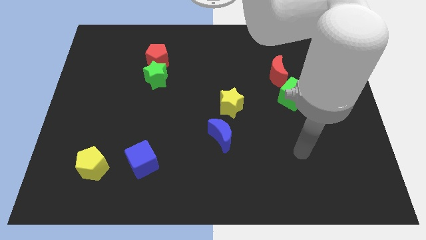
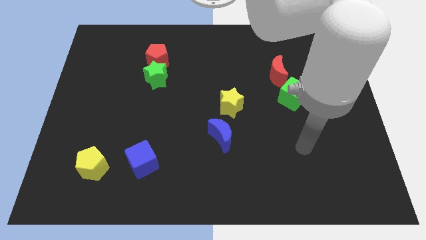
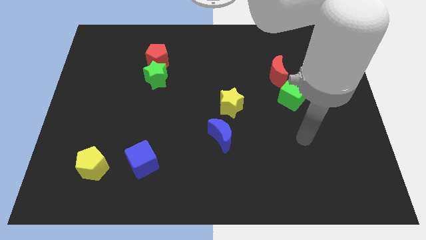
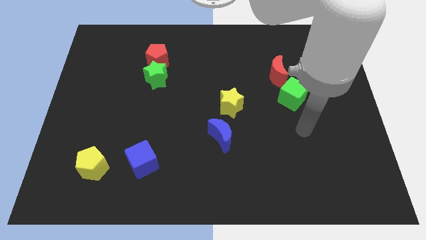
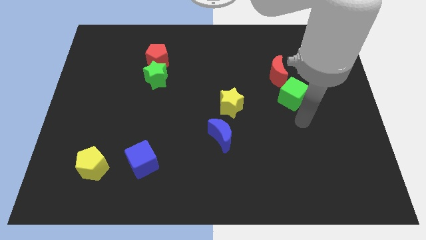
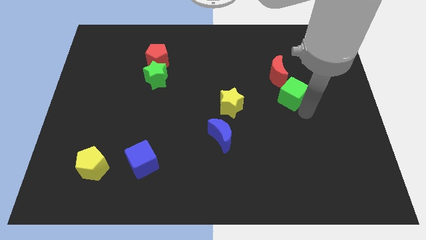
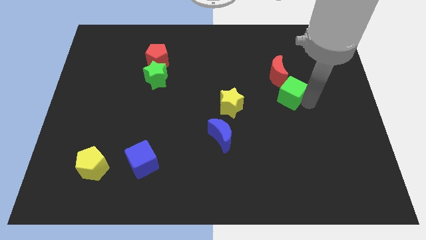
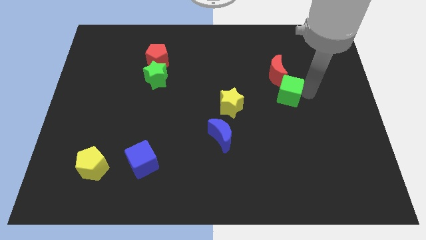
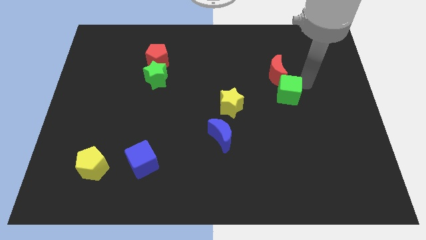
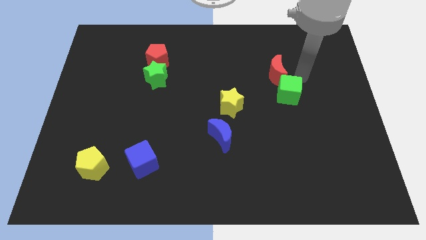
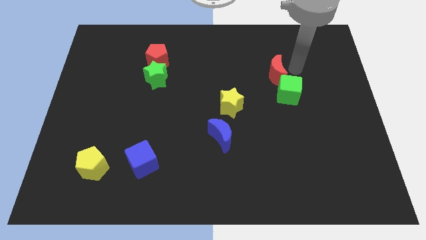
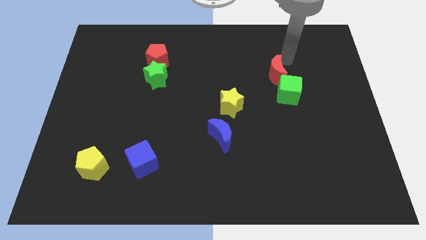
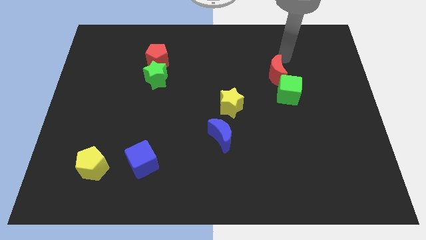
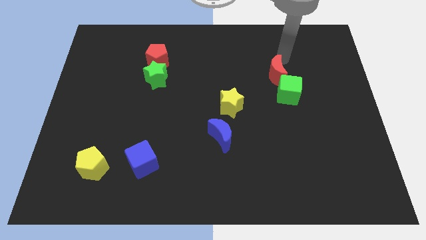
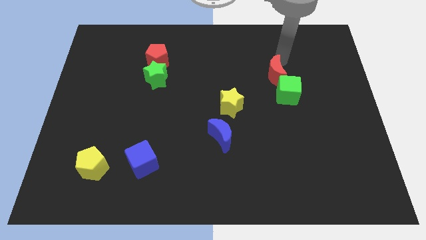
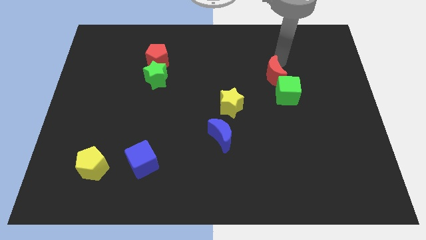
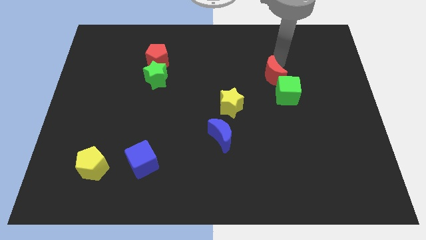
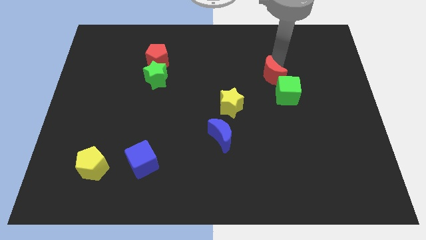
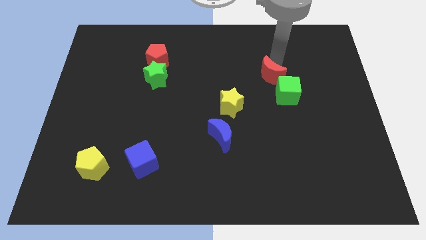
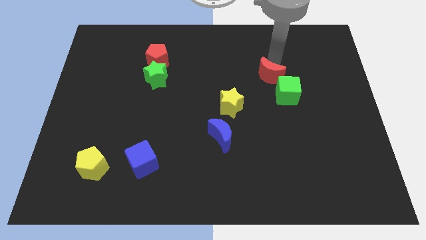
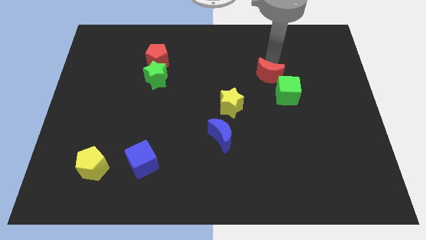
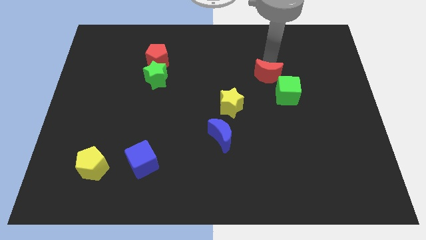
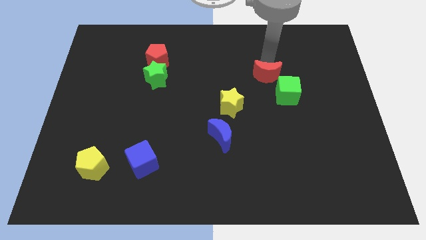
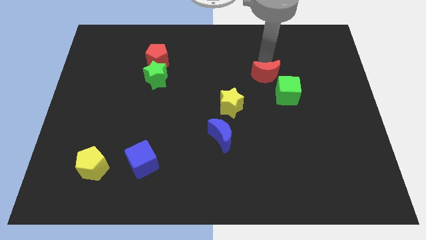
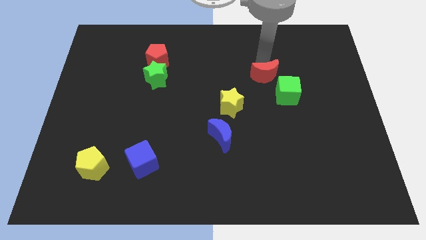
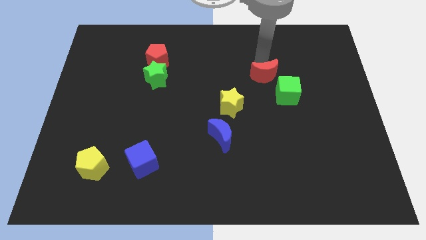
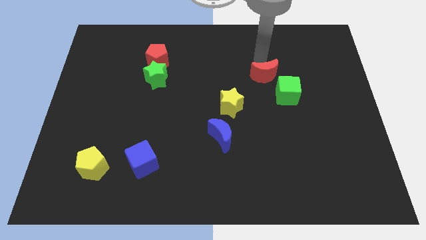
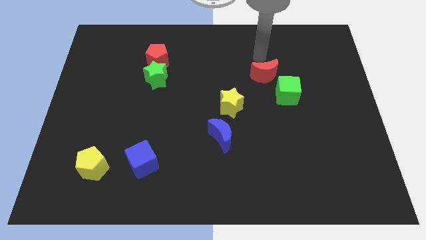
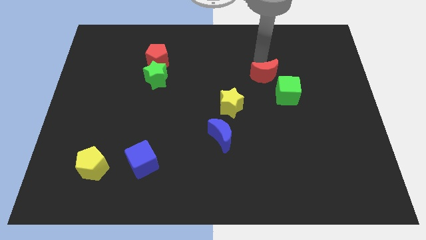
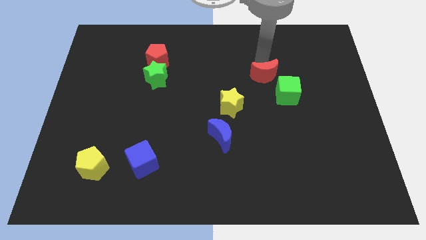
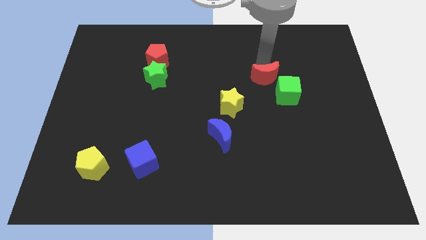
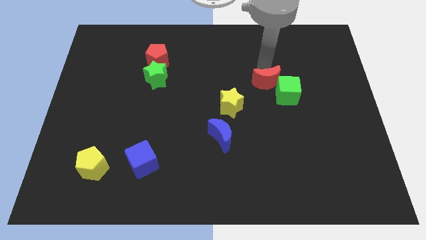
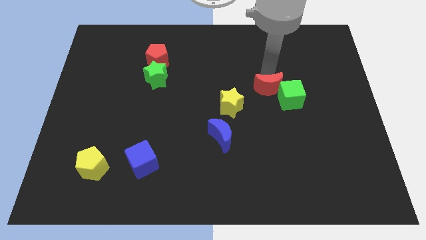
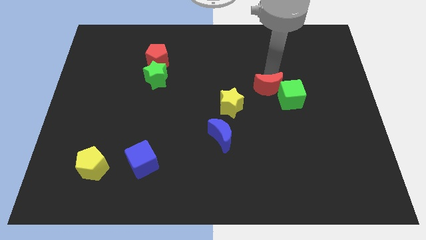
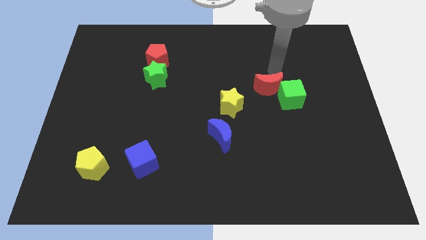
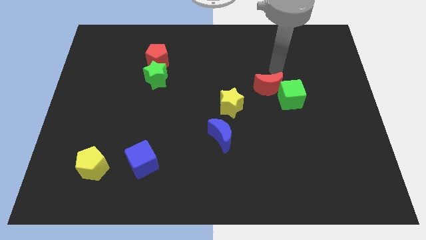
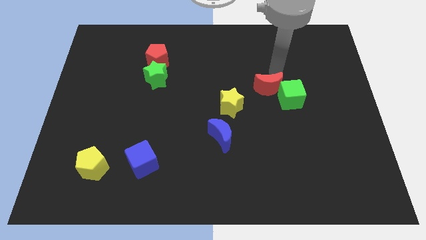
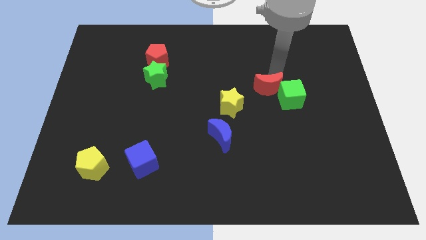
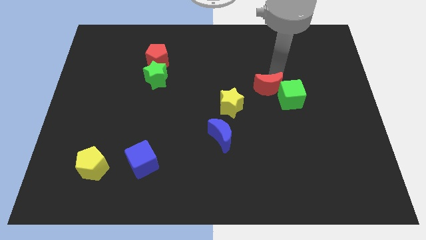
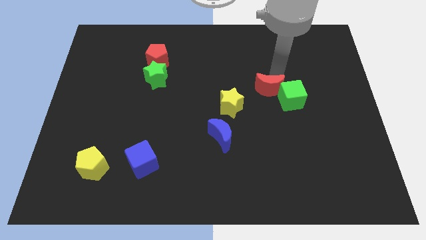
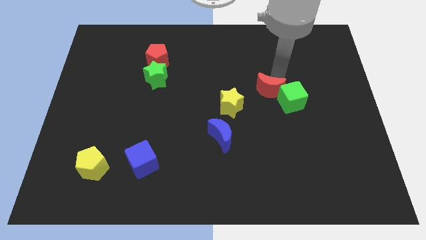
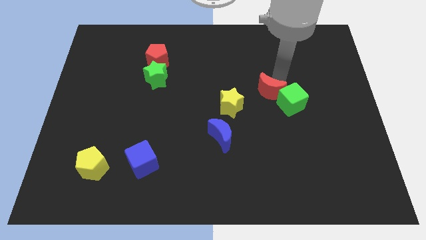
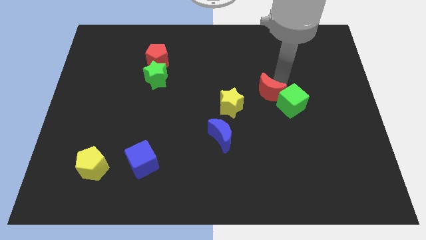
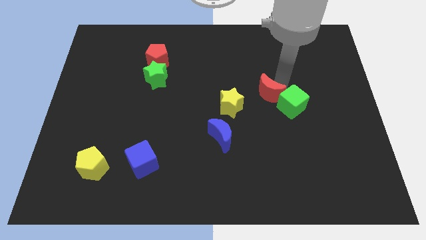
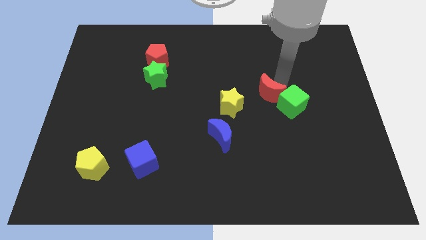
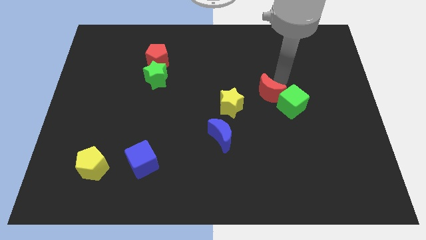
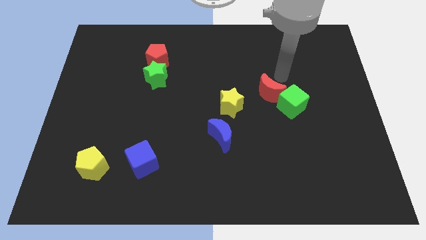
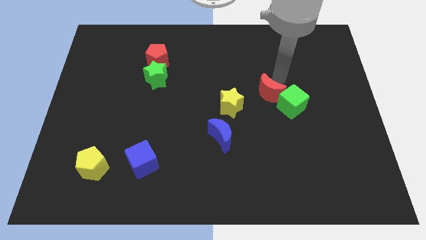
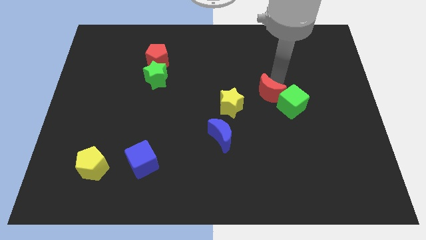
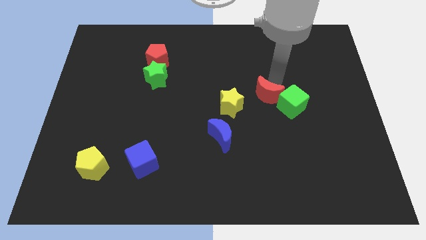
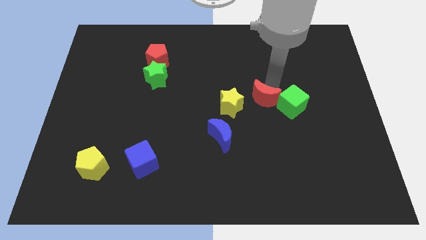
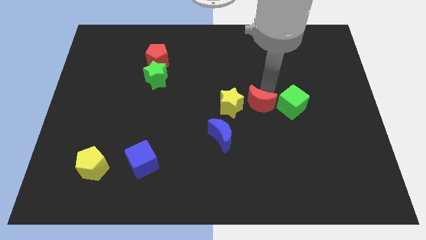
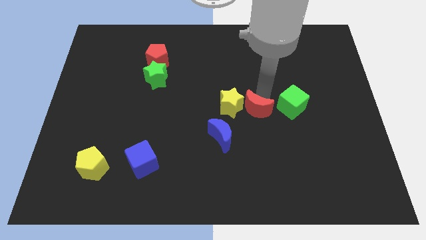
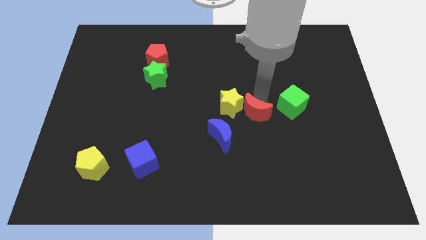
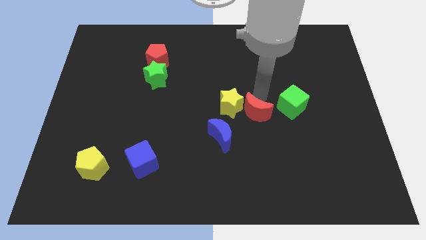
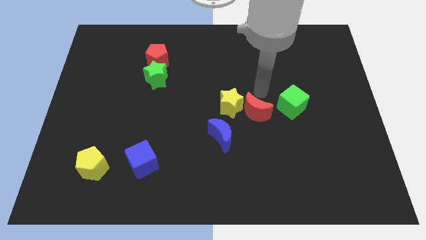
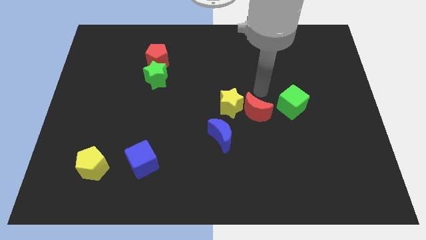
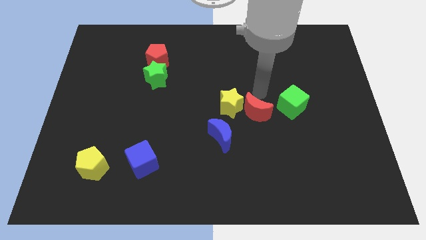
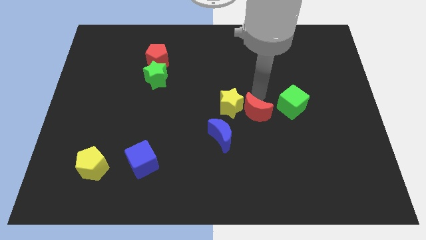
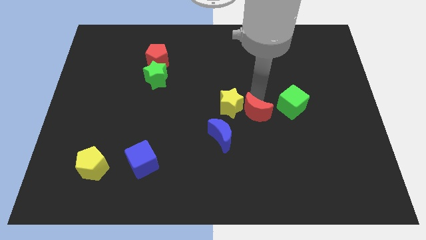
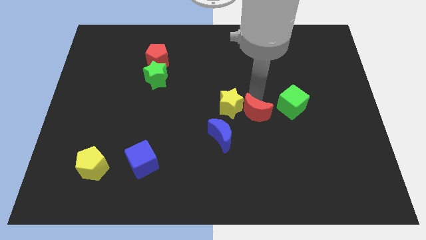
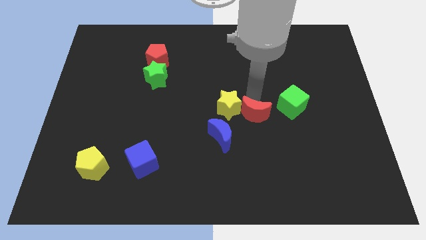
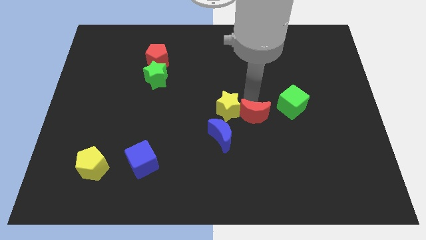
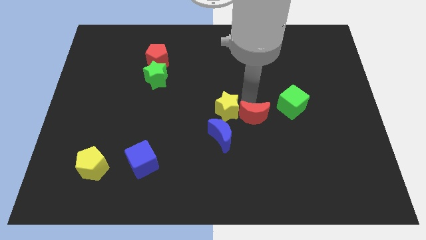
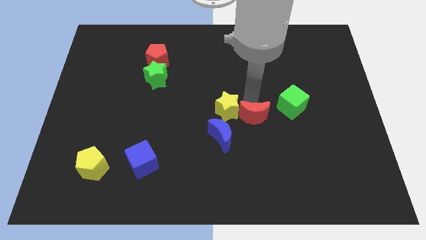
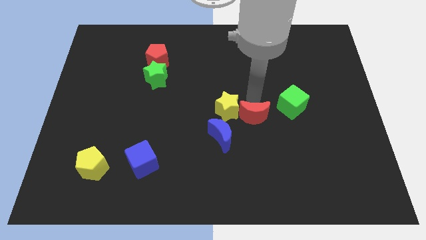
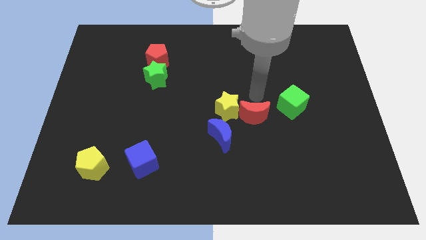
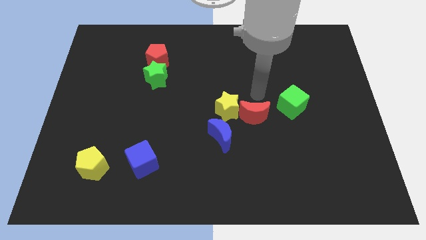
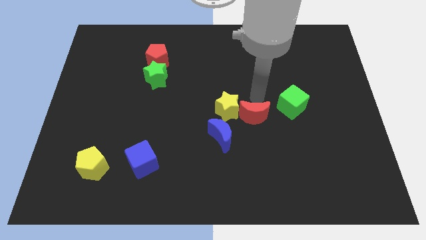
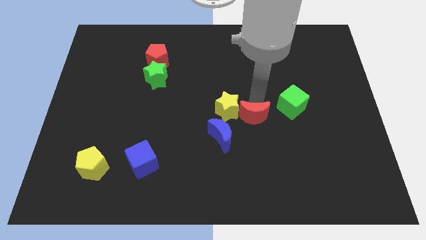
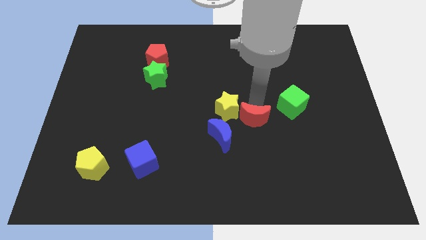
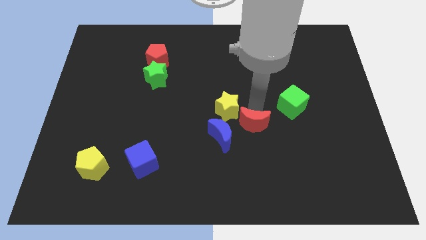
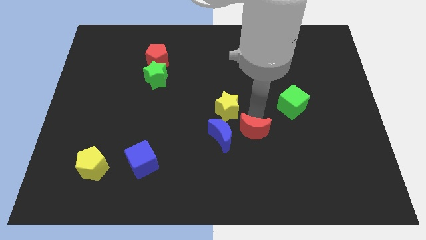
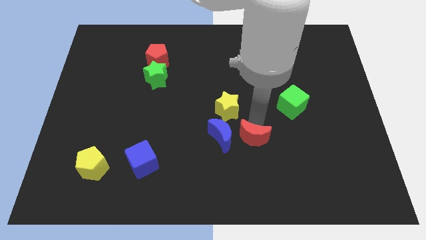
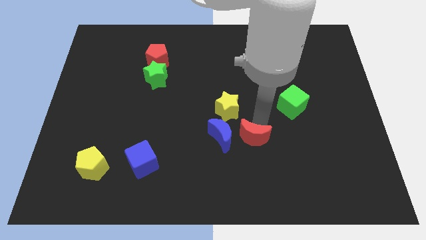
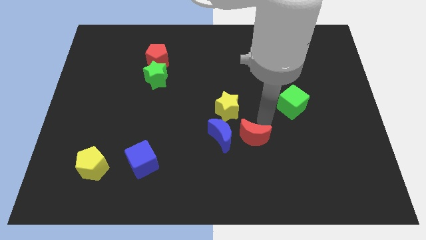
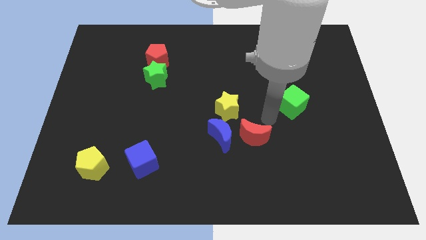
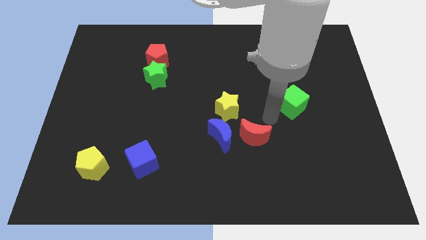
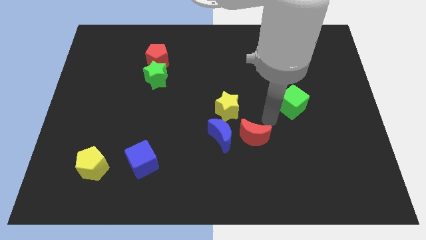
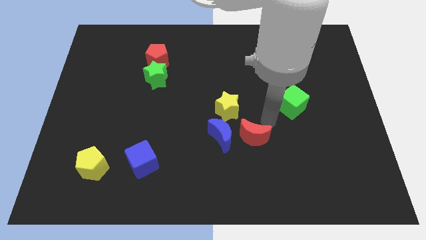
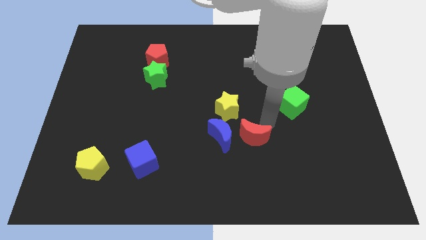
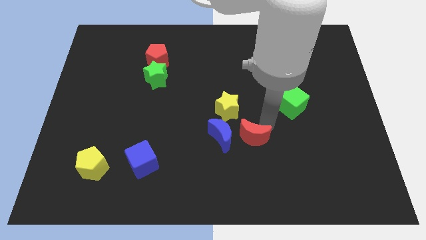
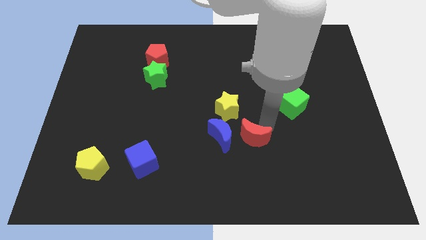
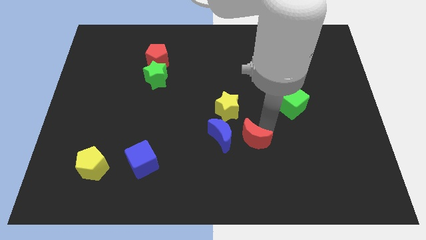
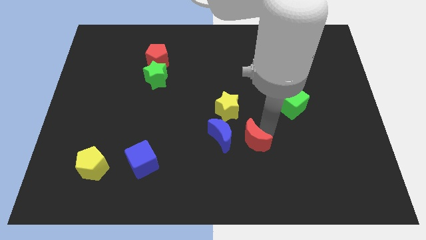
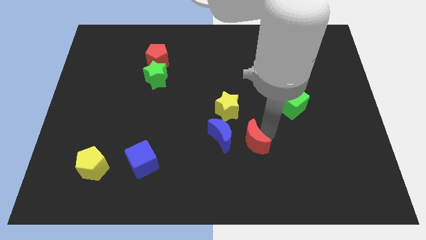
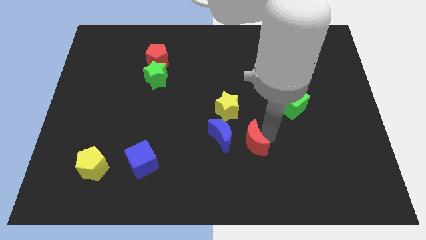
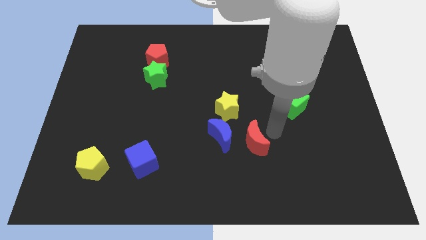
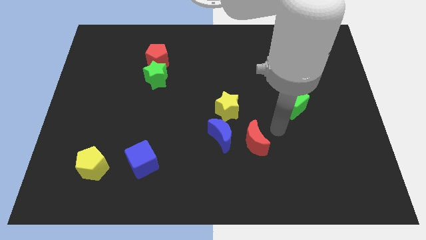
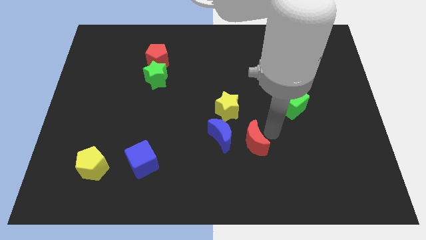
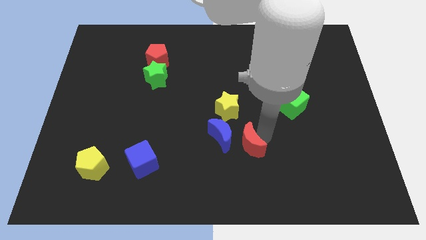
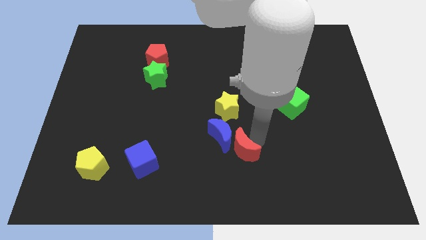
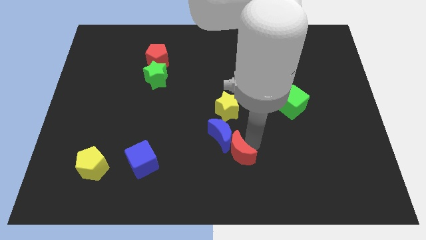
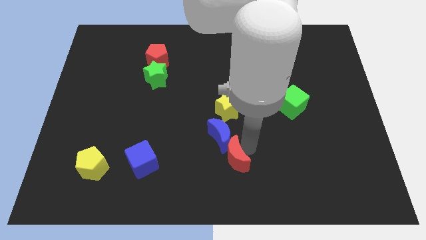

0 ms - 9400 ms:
put the red moon to the bottom side
